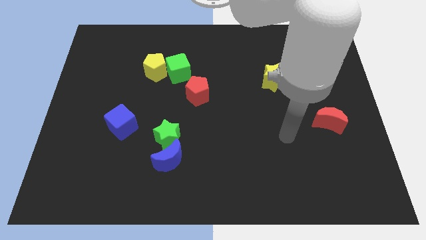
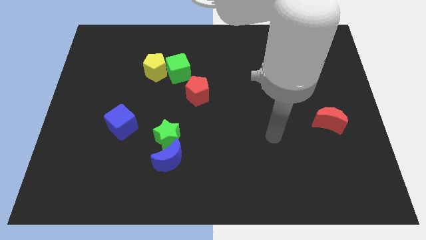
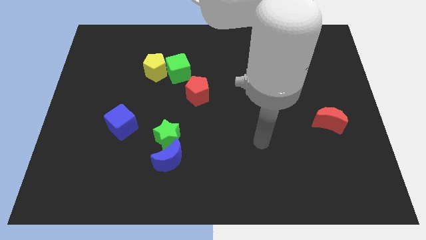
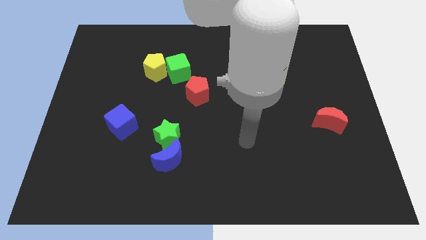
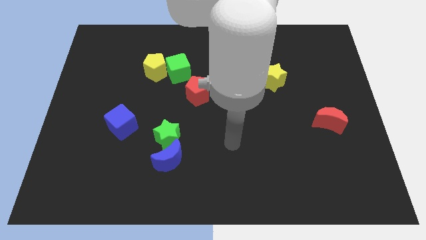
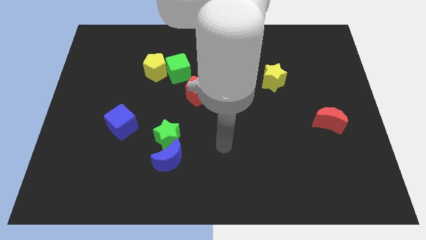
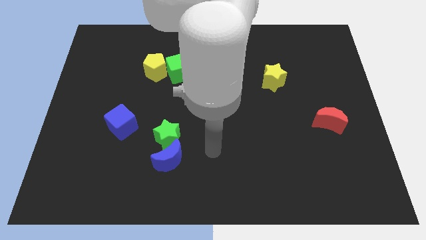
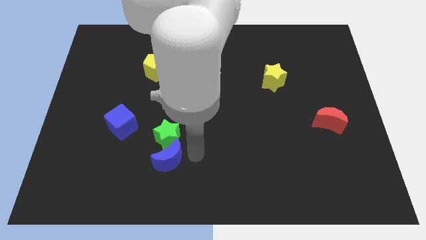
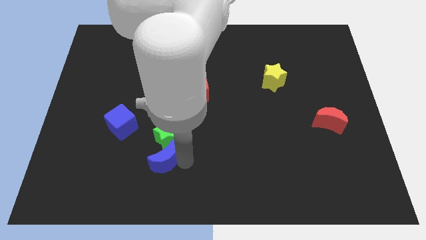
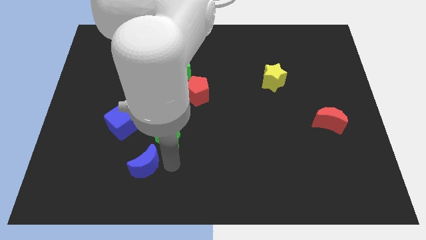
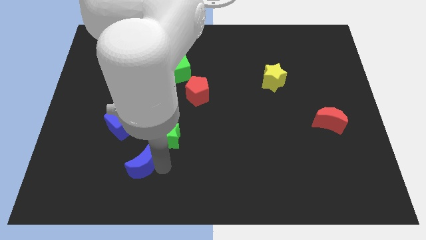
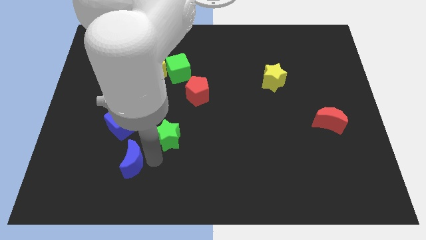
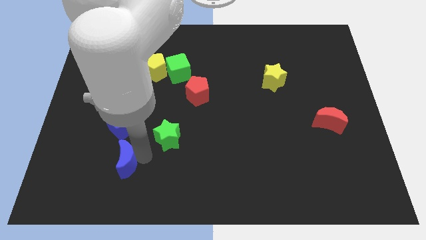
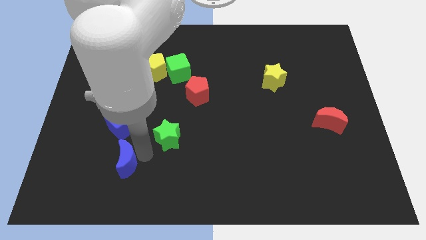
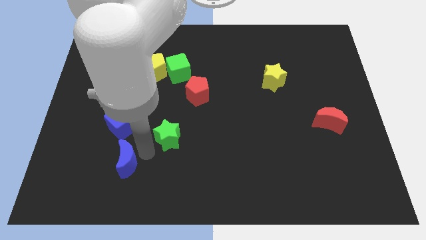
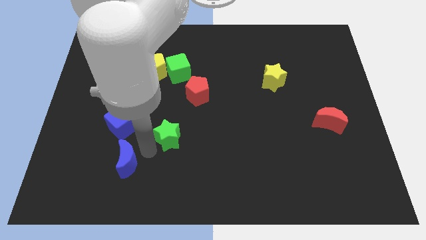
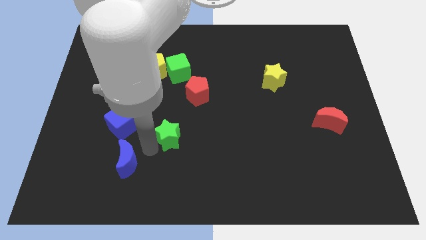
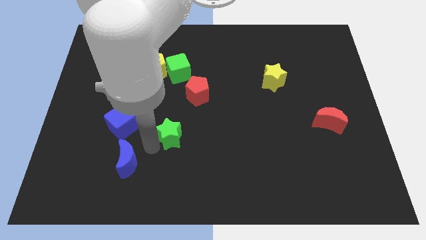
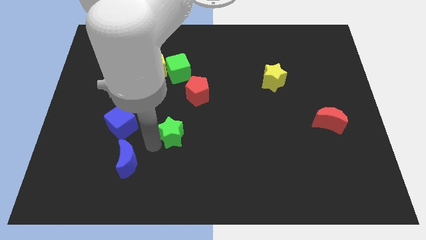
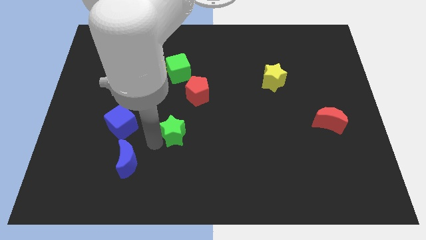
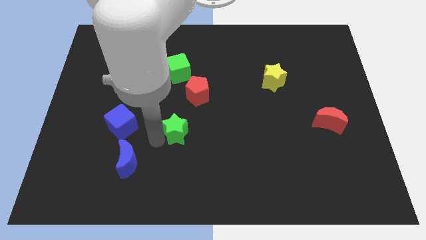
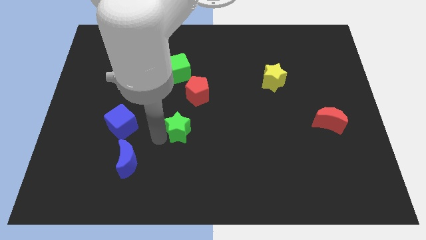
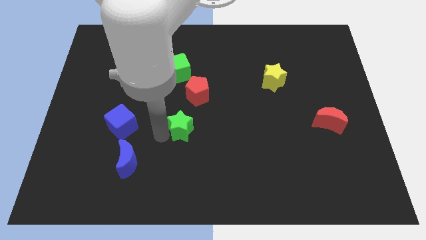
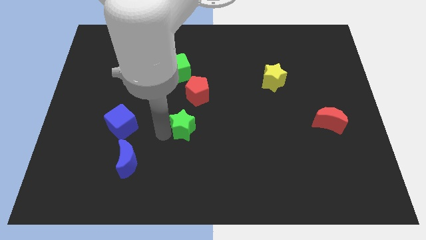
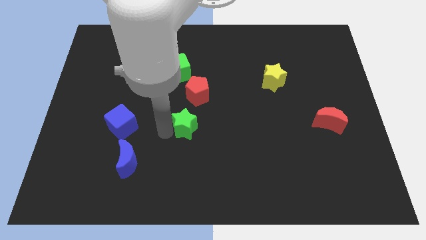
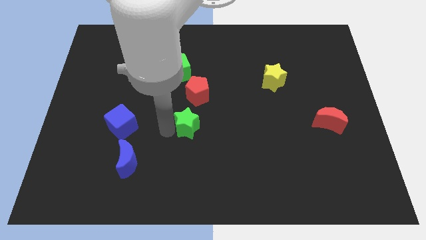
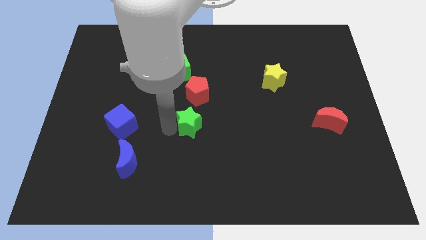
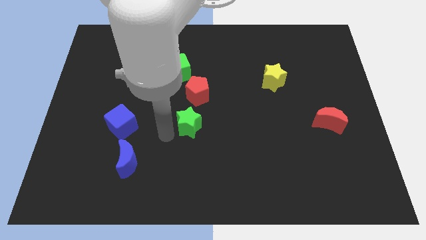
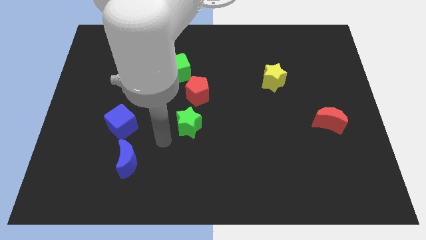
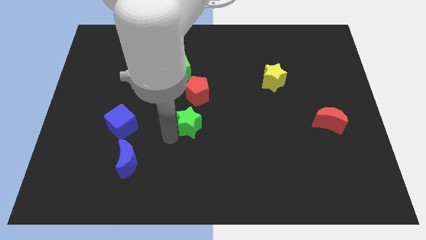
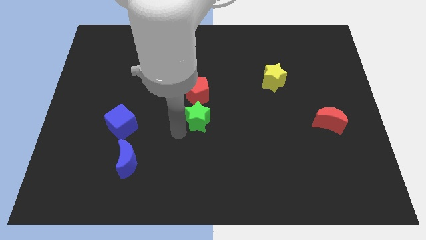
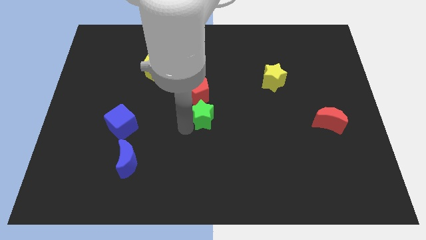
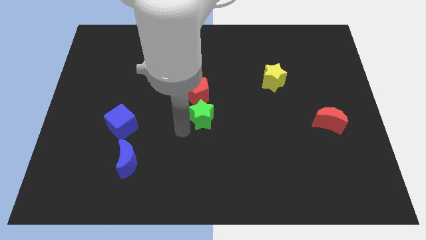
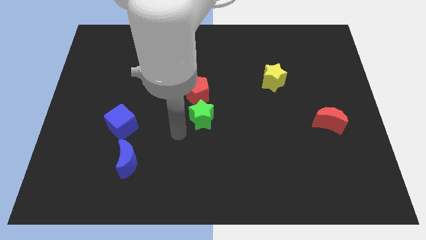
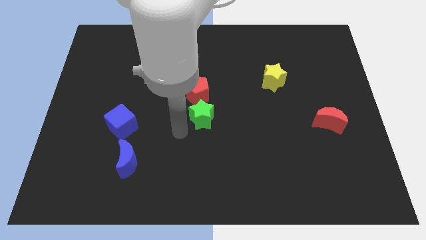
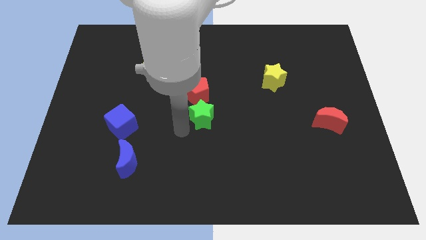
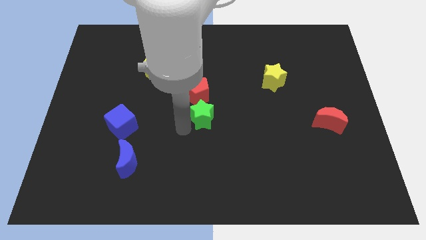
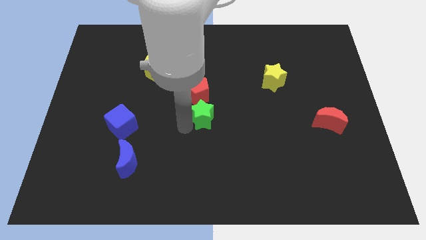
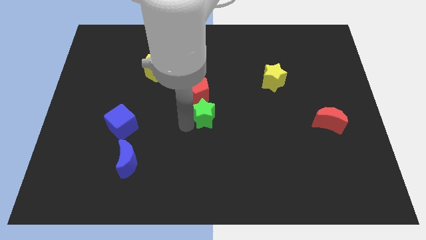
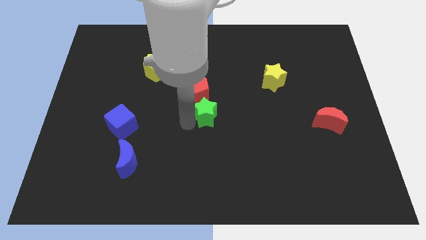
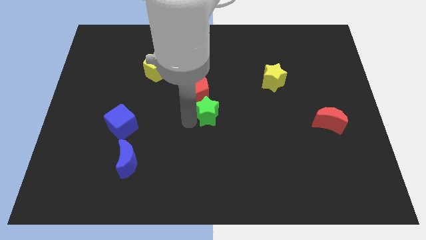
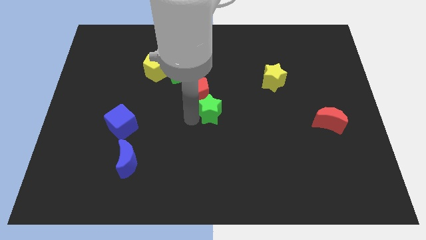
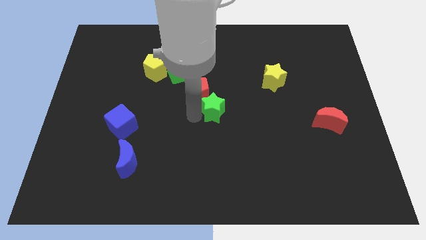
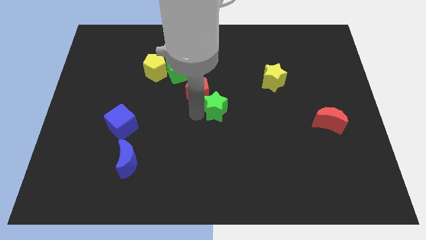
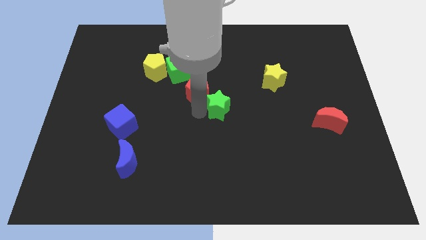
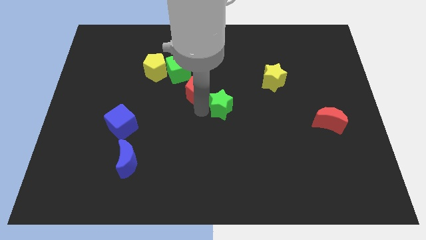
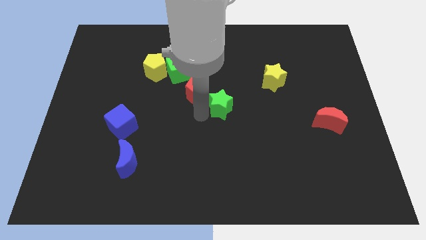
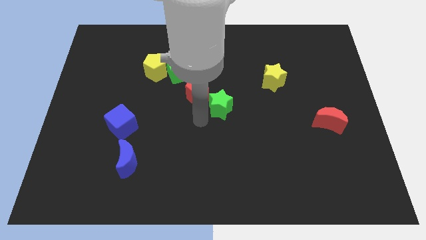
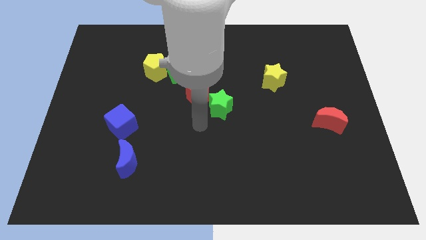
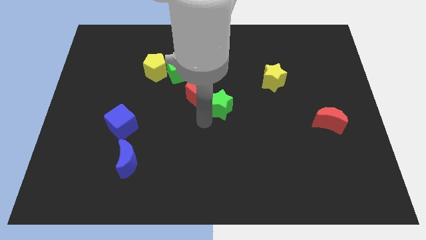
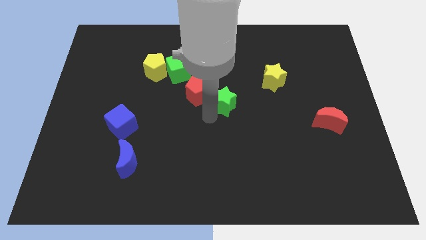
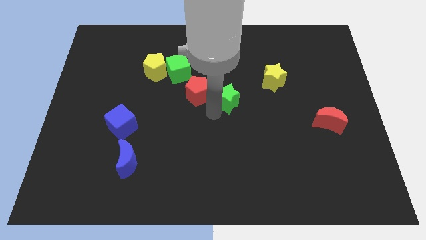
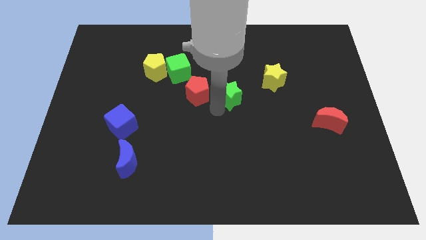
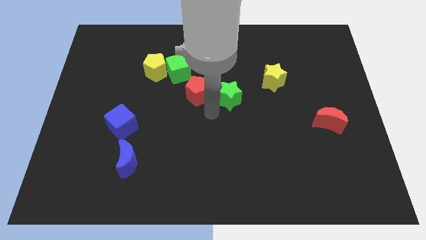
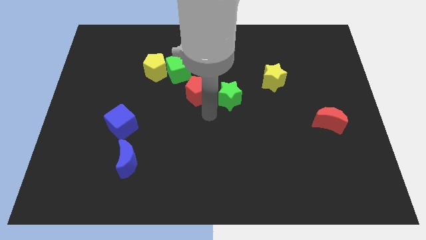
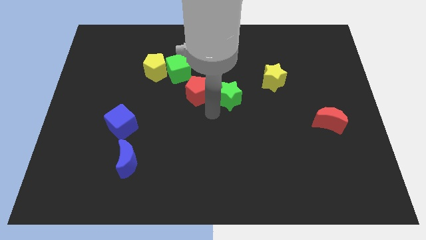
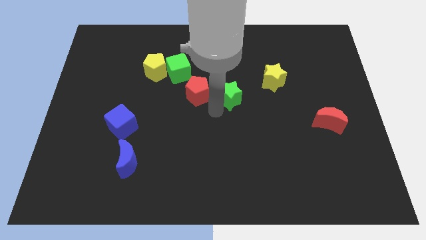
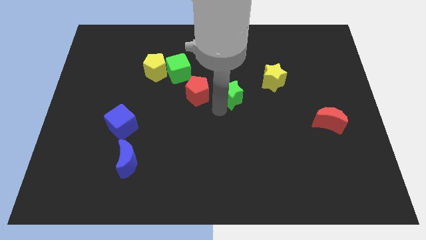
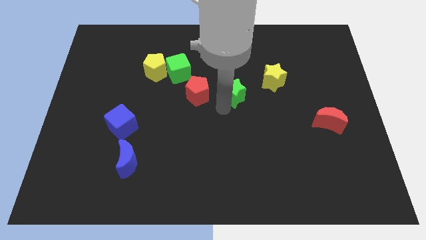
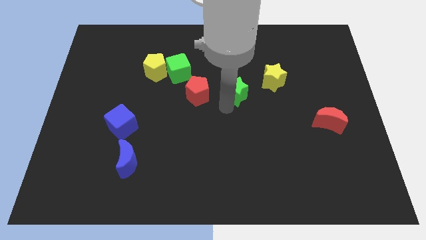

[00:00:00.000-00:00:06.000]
slide the green star up and then right

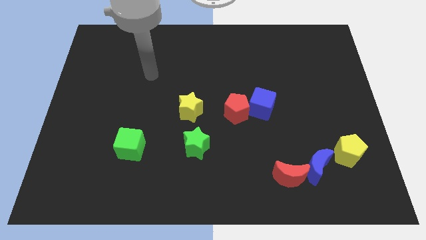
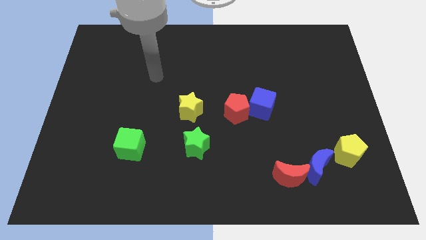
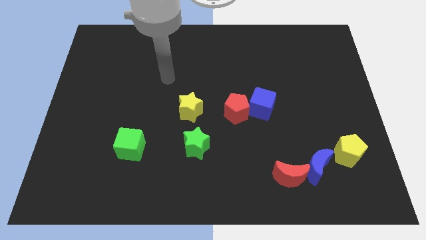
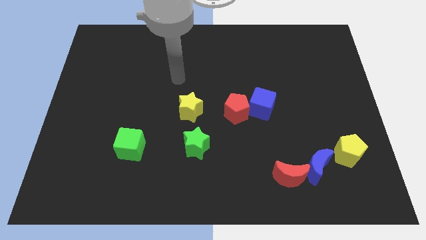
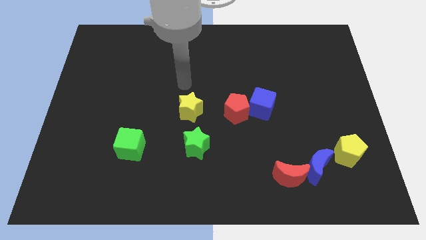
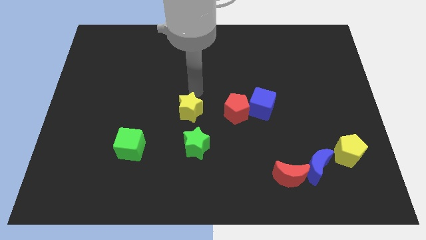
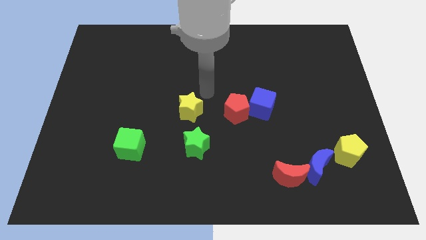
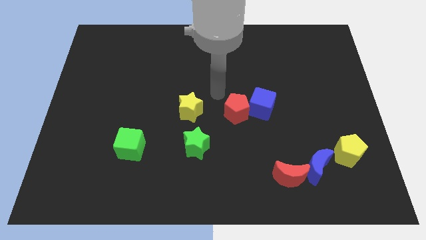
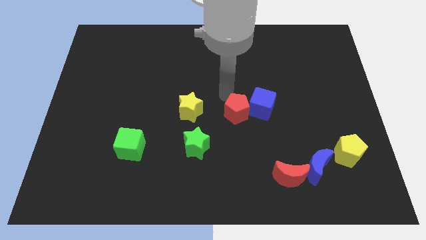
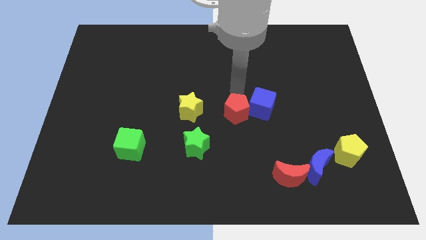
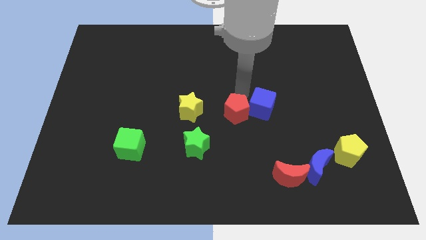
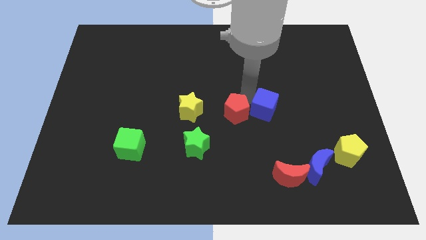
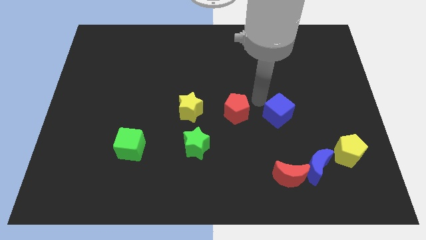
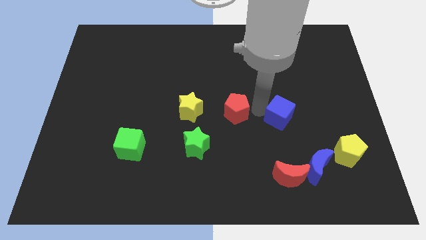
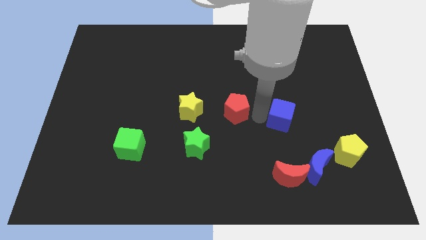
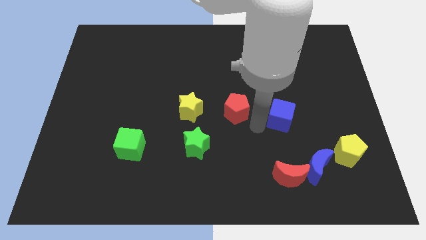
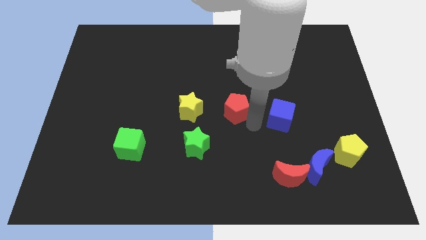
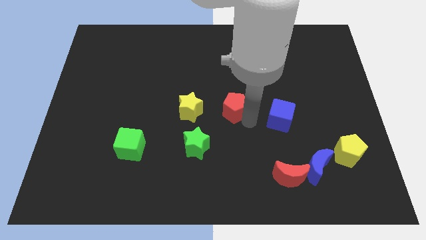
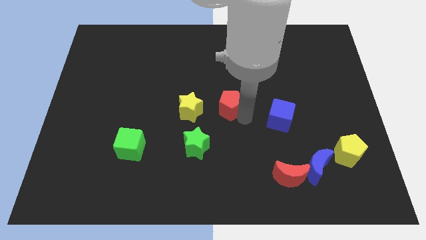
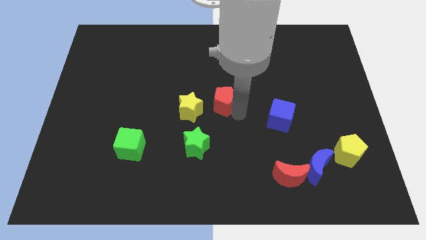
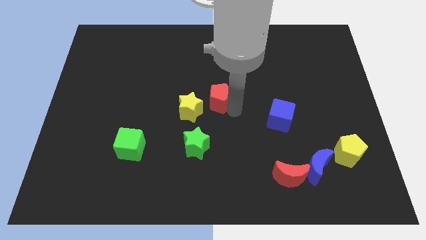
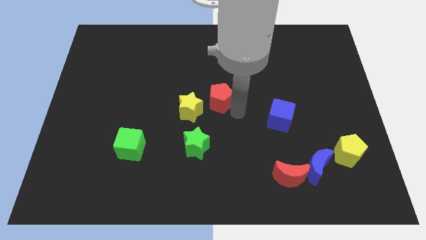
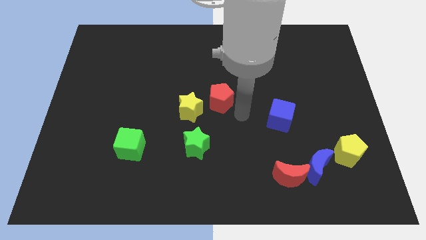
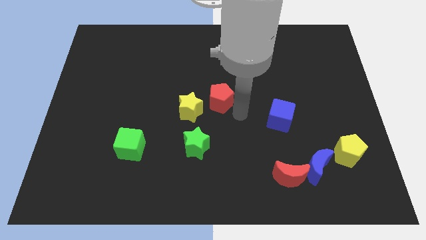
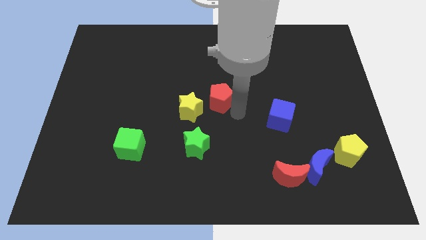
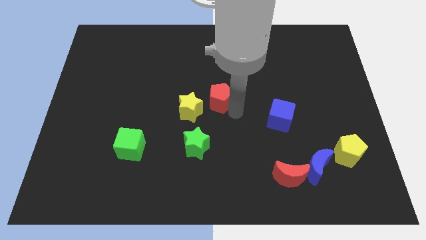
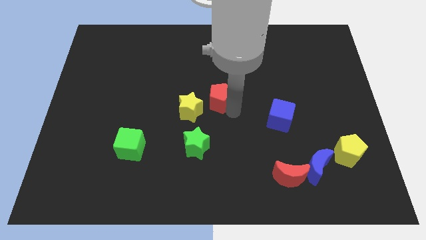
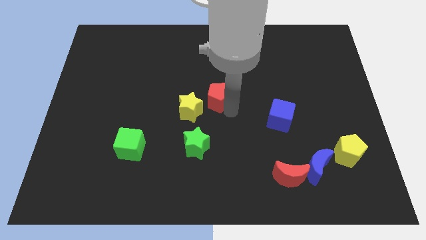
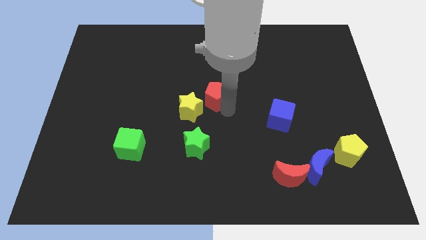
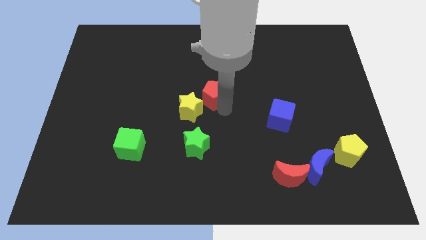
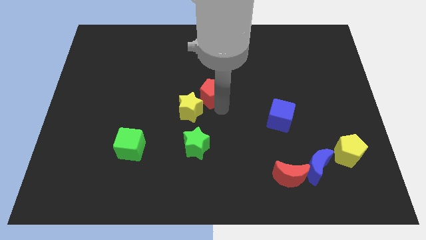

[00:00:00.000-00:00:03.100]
move the red pentagon diagonally up and left a little
